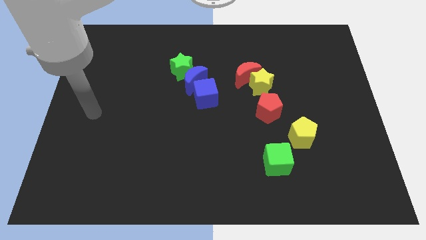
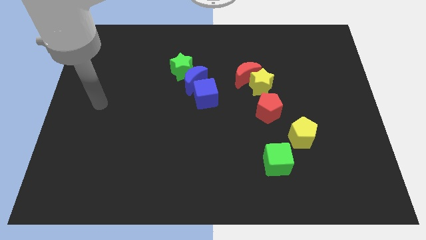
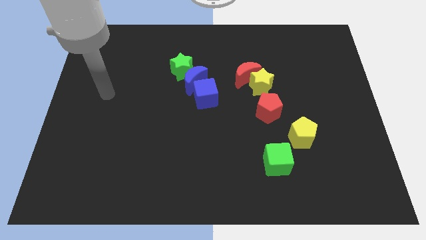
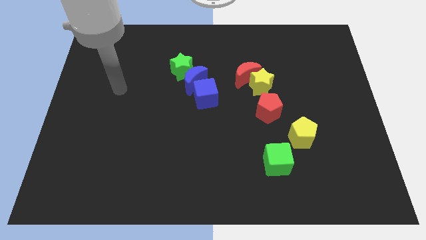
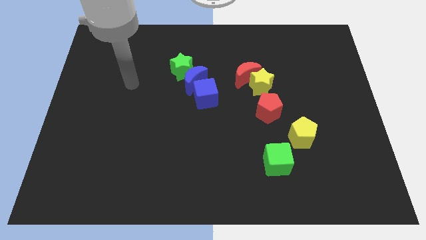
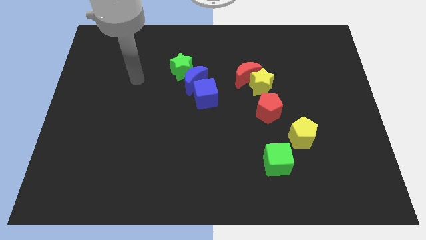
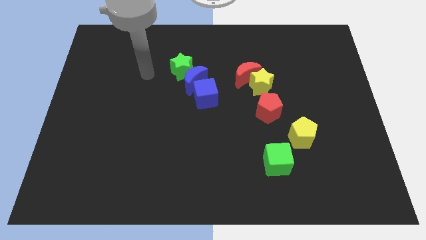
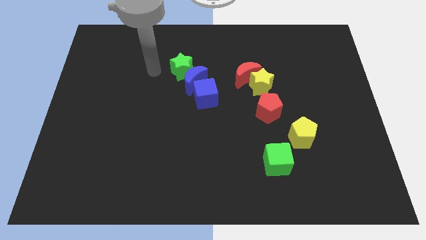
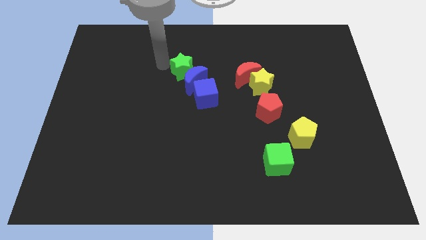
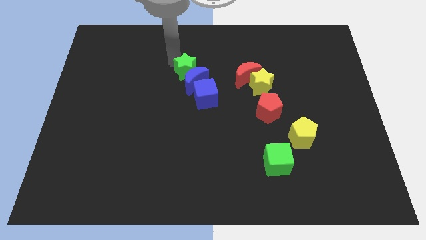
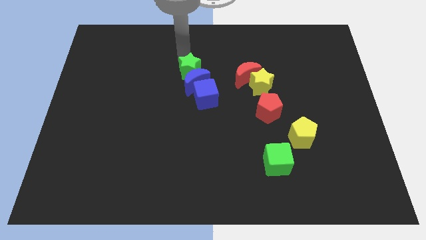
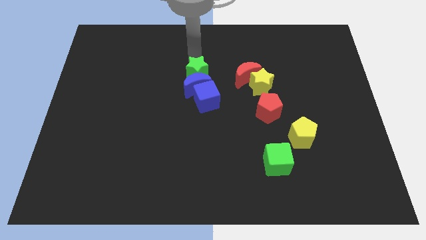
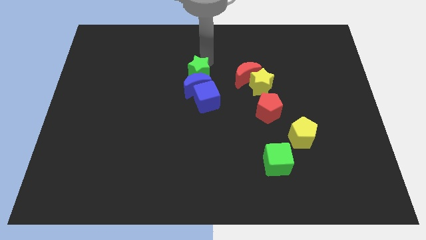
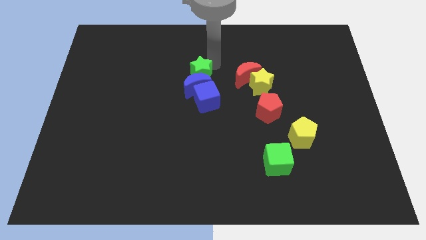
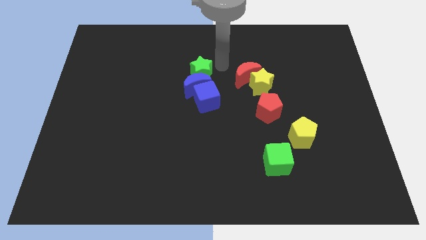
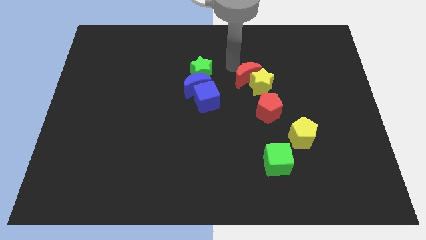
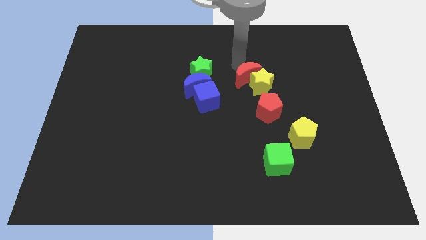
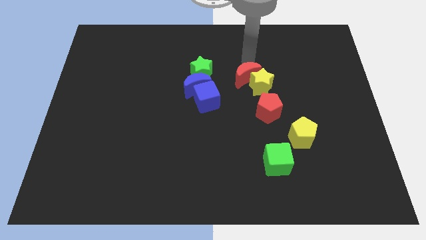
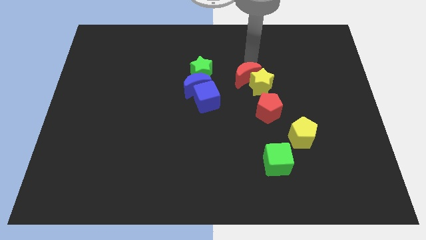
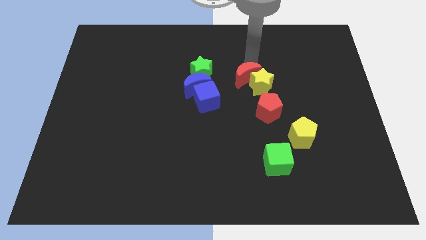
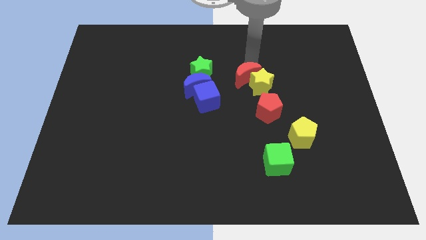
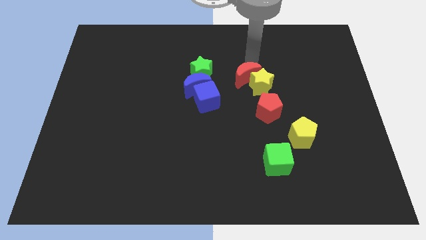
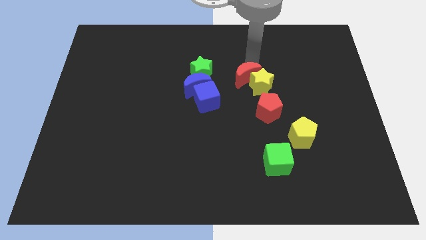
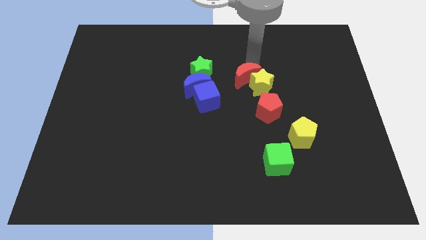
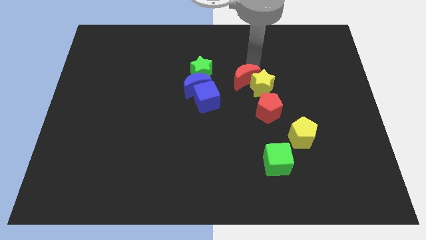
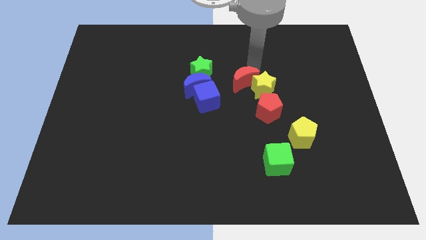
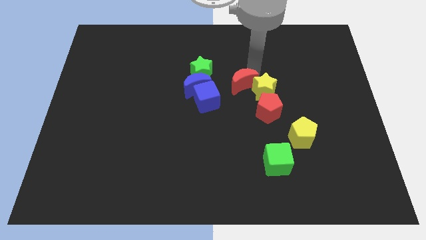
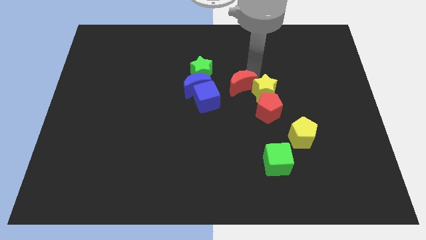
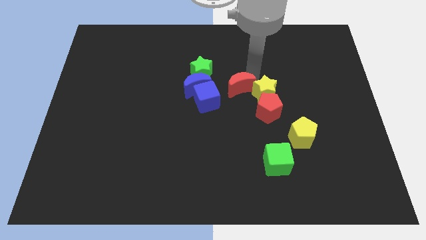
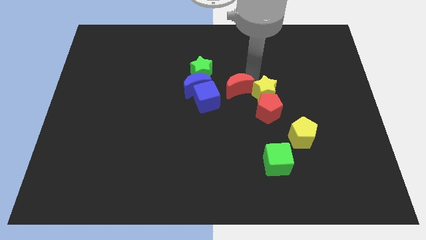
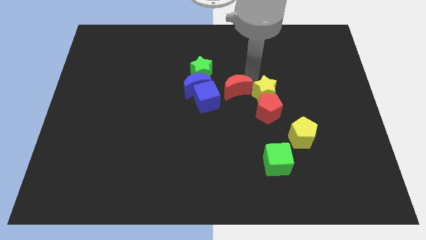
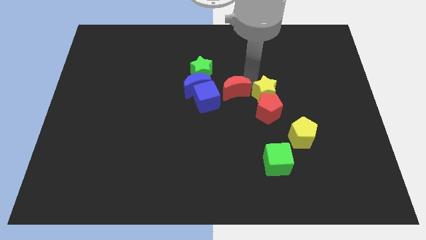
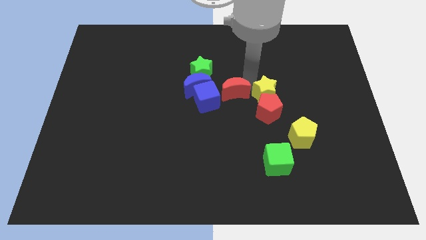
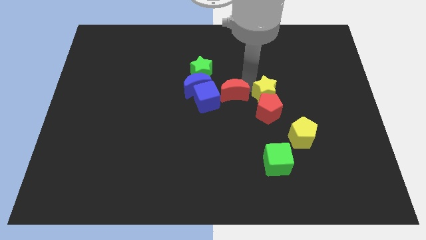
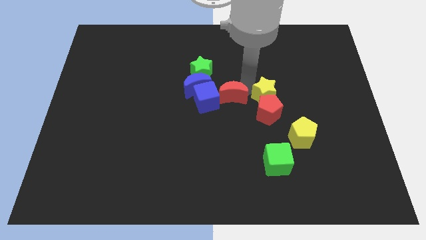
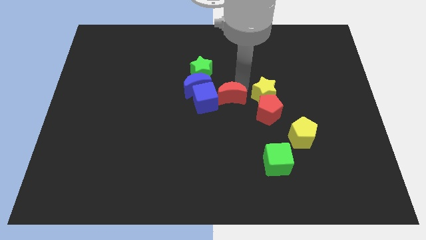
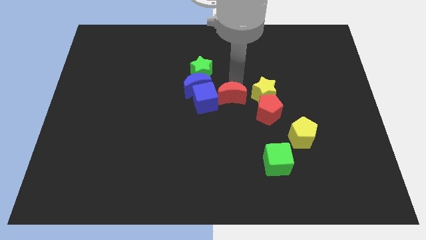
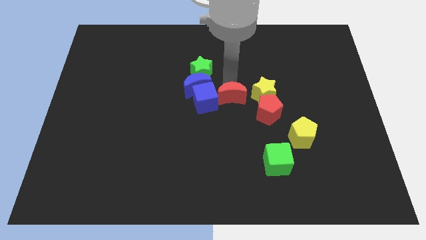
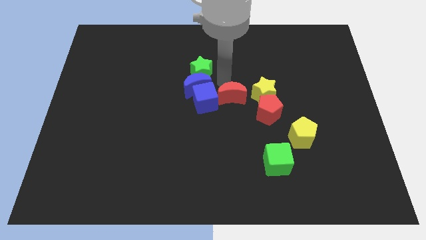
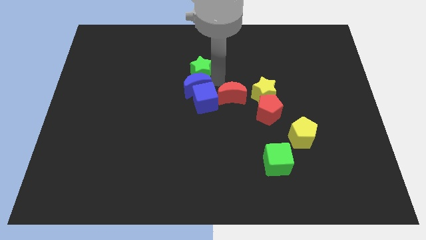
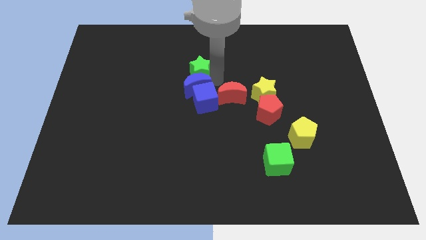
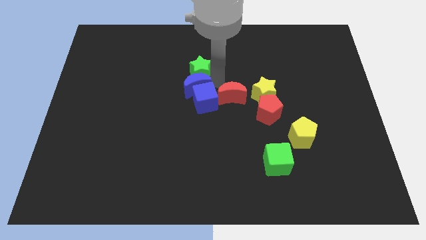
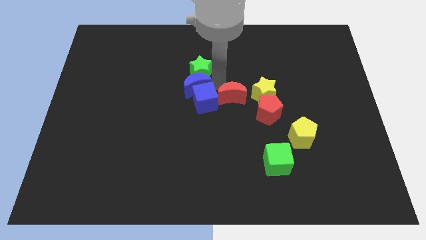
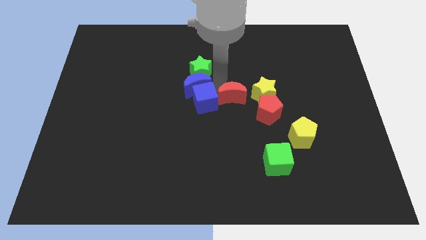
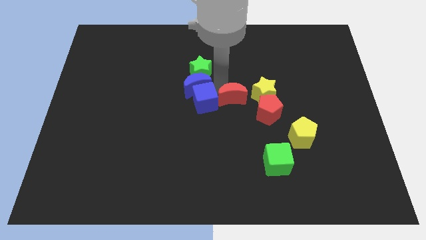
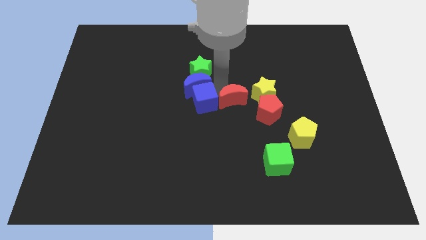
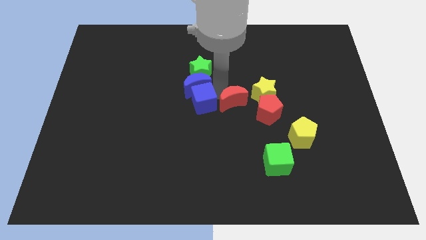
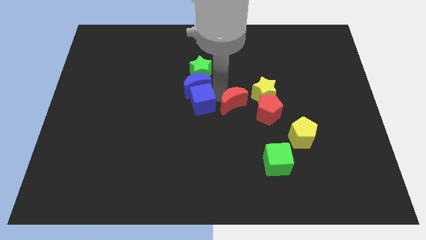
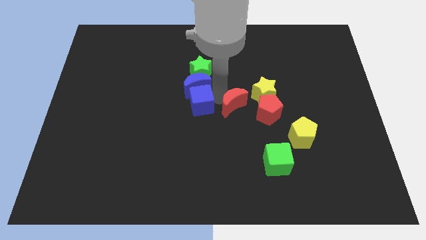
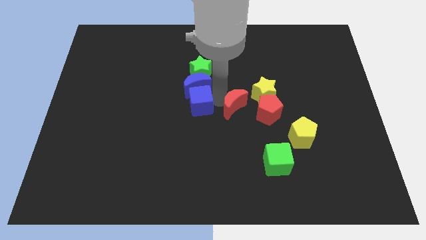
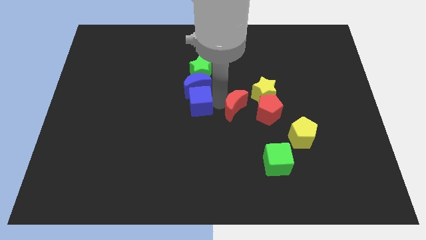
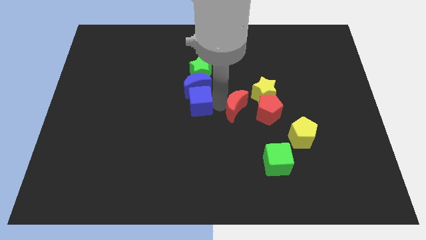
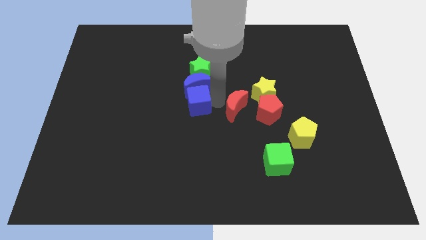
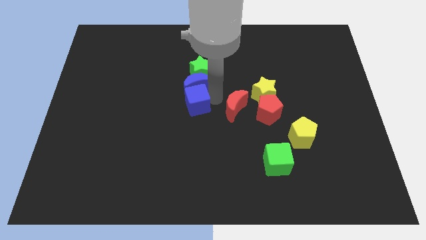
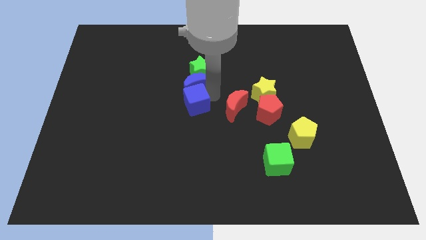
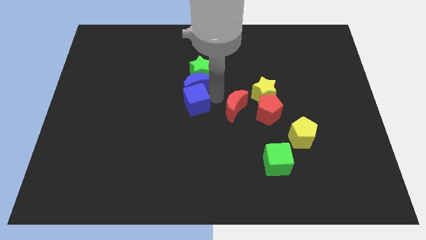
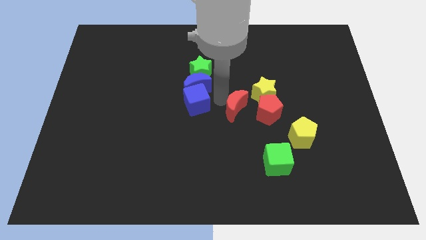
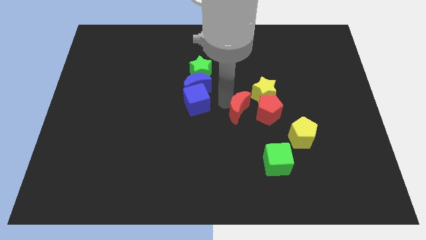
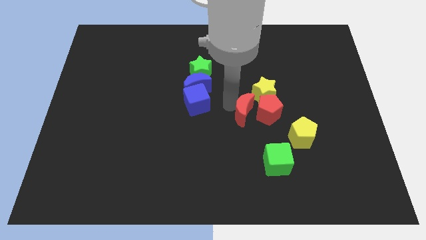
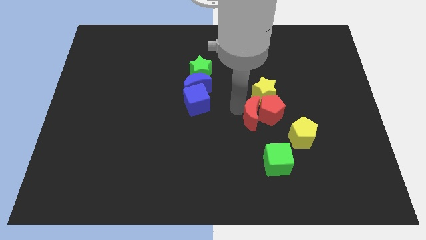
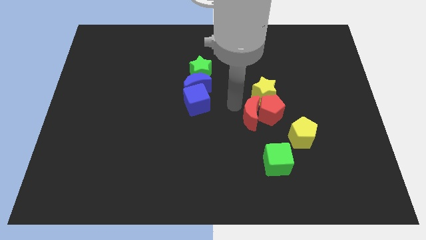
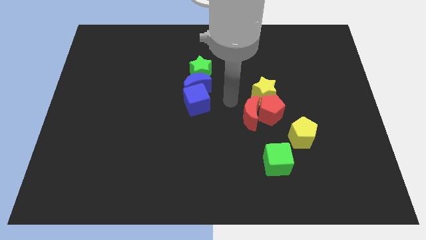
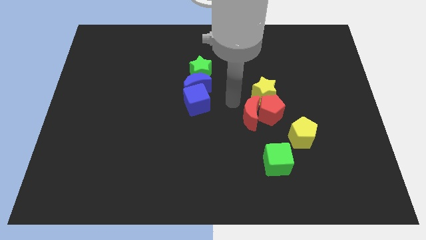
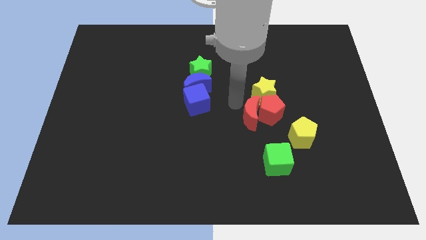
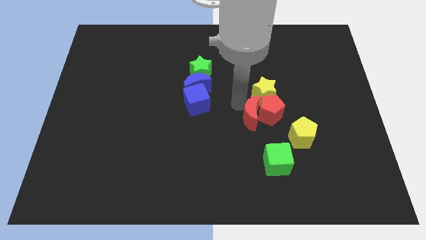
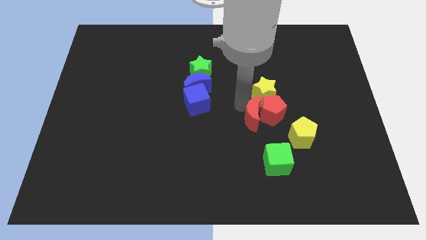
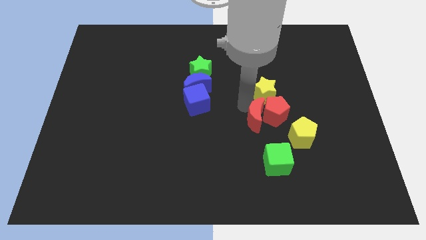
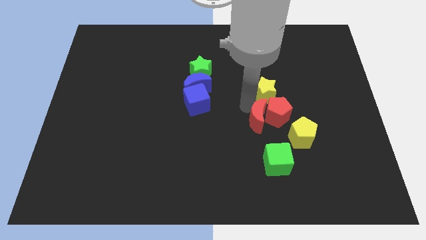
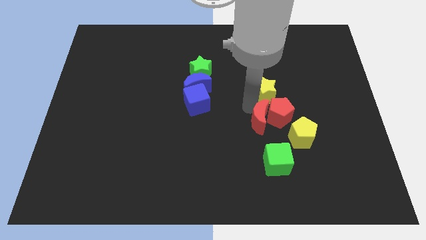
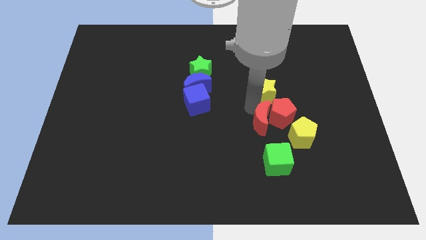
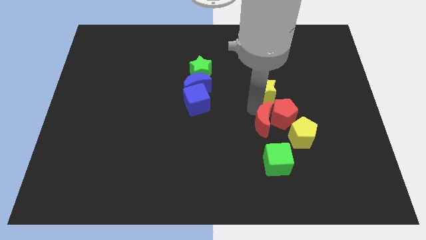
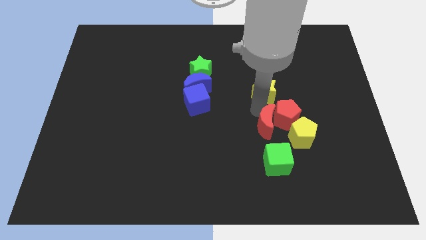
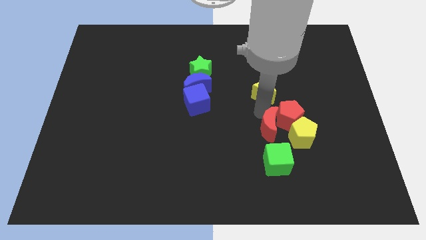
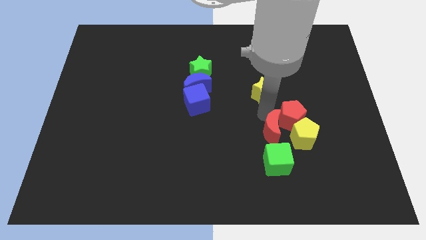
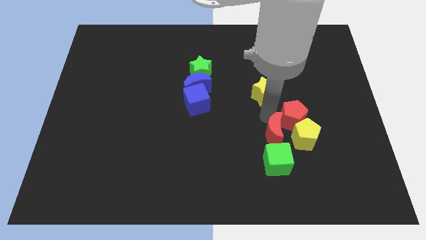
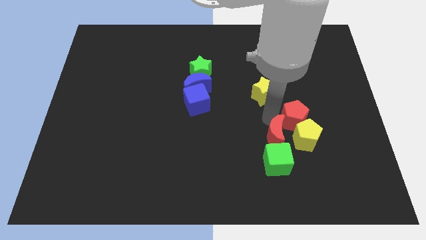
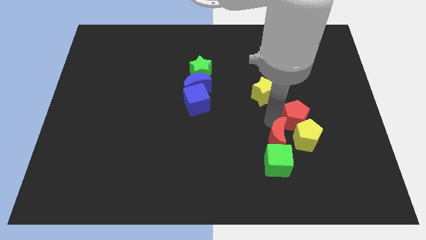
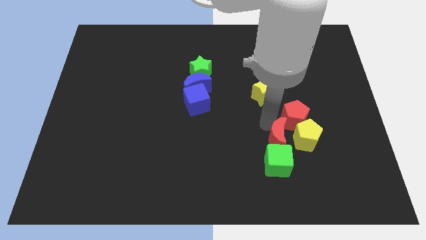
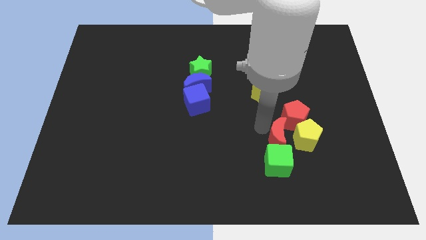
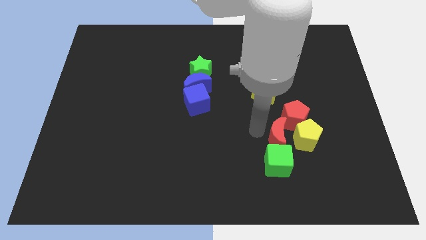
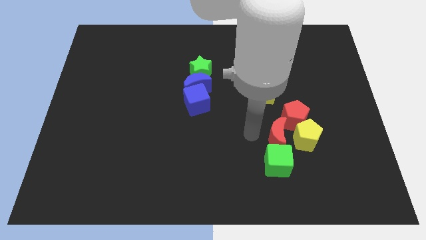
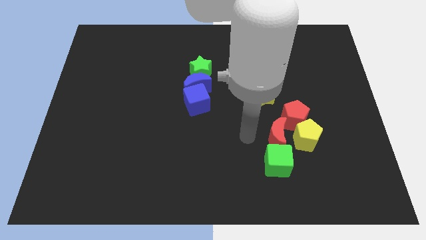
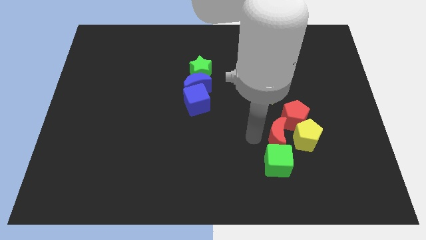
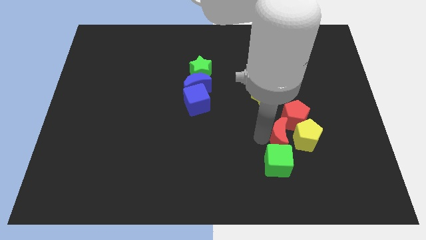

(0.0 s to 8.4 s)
put the red moon close to the yellow pentagon
